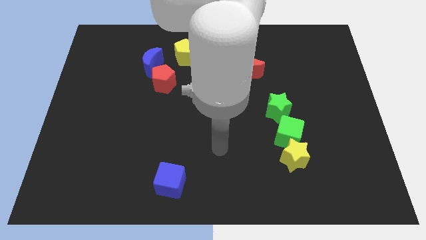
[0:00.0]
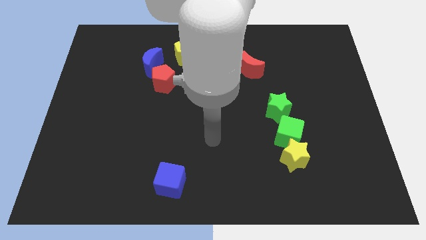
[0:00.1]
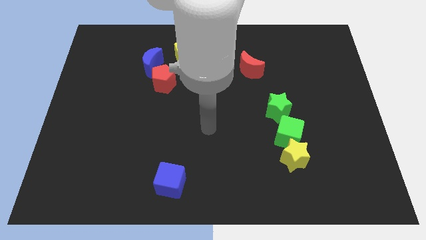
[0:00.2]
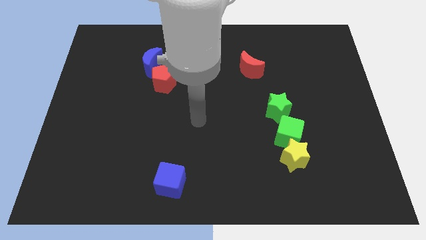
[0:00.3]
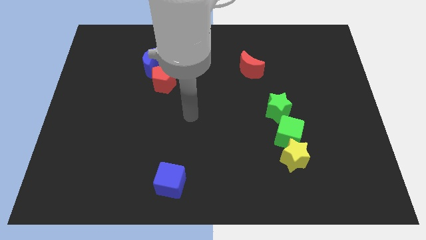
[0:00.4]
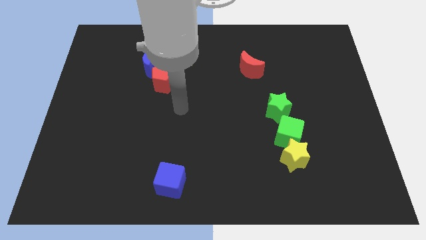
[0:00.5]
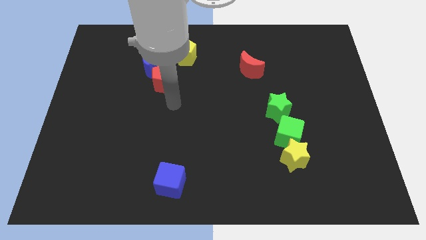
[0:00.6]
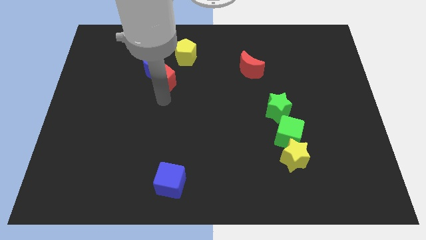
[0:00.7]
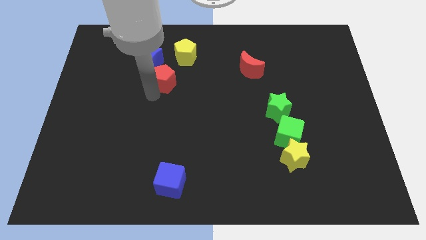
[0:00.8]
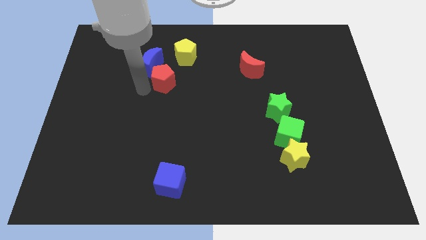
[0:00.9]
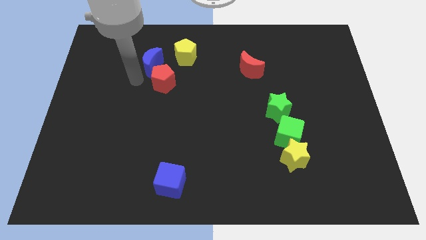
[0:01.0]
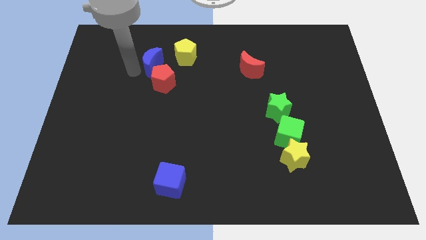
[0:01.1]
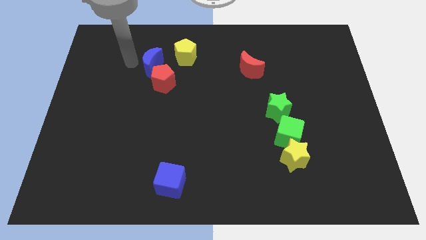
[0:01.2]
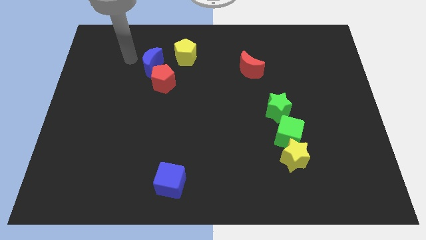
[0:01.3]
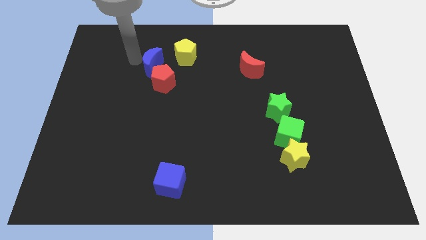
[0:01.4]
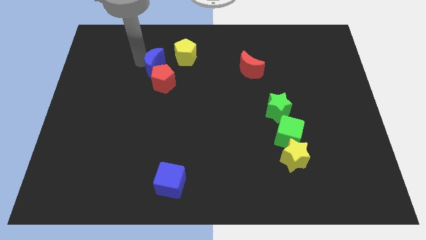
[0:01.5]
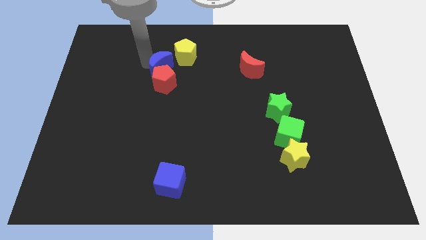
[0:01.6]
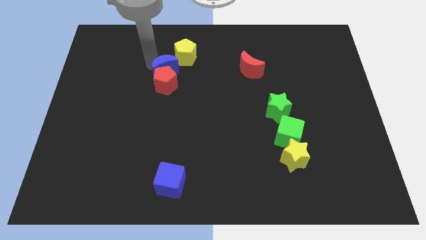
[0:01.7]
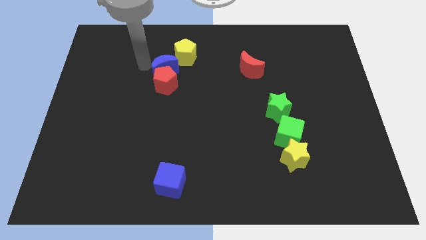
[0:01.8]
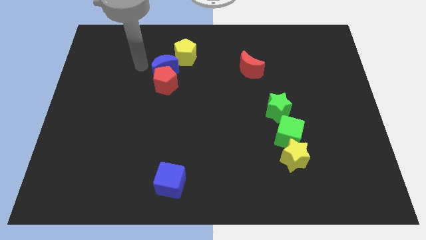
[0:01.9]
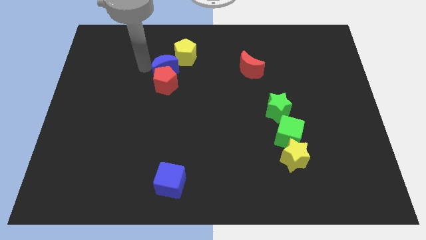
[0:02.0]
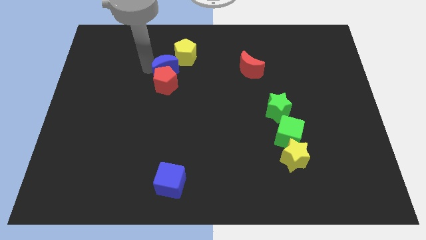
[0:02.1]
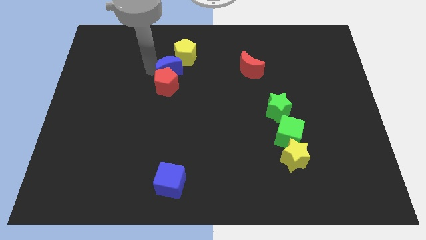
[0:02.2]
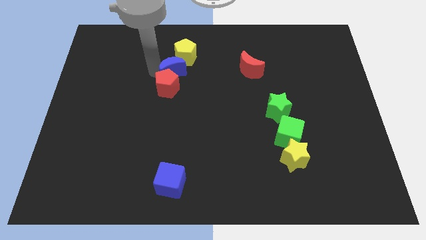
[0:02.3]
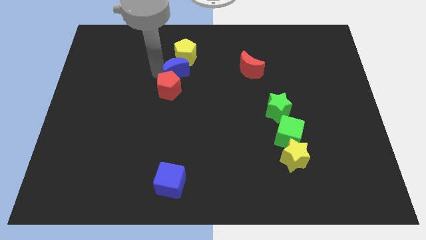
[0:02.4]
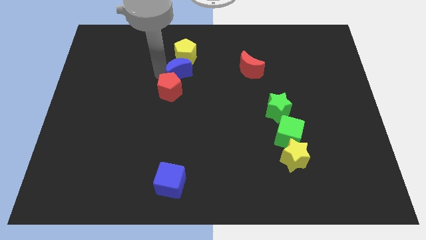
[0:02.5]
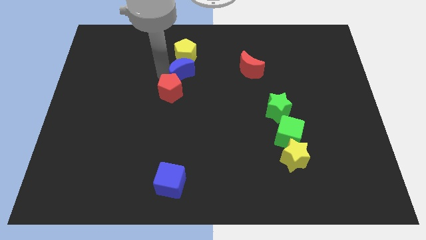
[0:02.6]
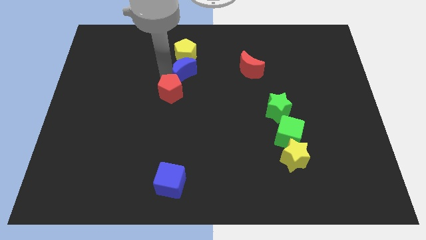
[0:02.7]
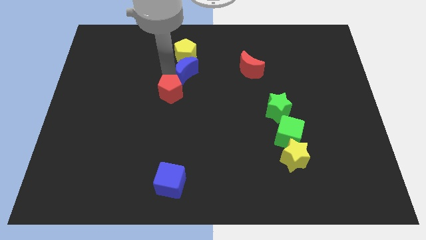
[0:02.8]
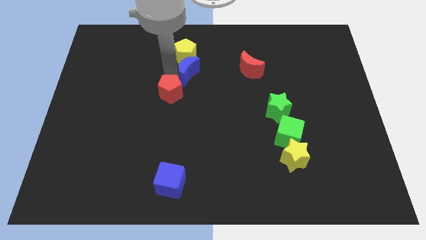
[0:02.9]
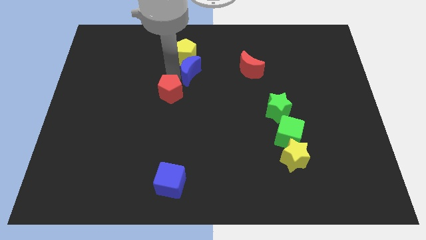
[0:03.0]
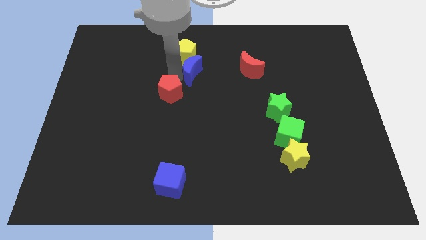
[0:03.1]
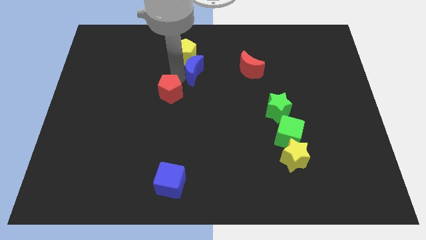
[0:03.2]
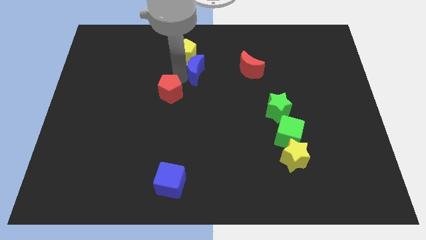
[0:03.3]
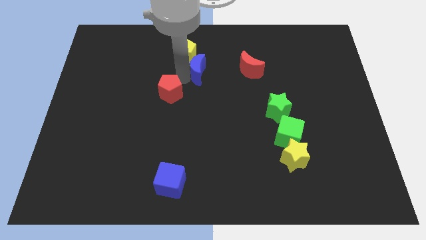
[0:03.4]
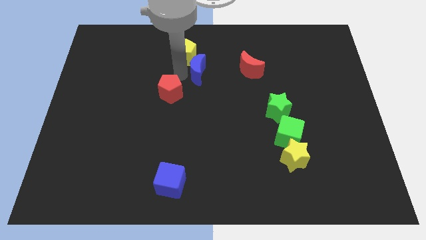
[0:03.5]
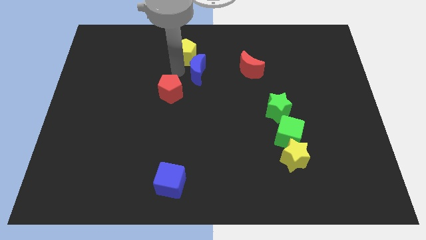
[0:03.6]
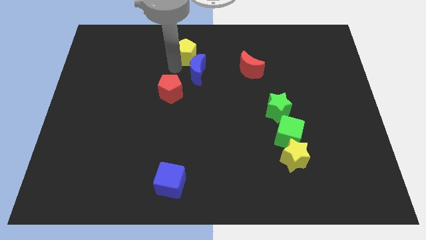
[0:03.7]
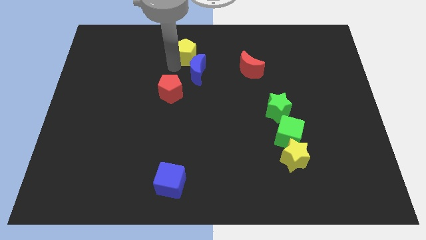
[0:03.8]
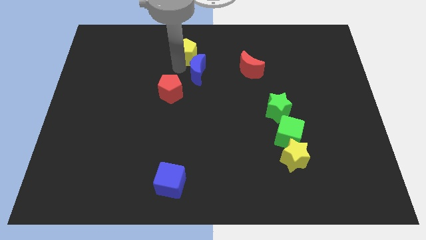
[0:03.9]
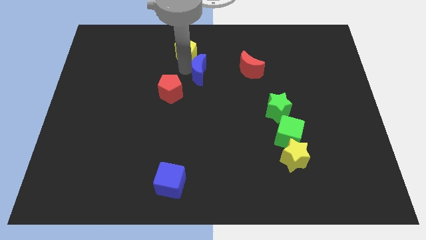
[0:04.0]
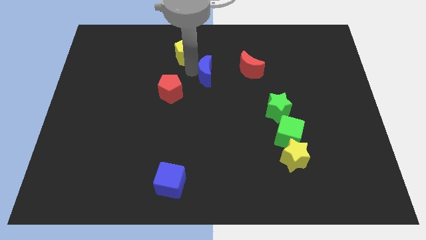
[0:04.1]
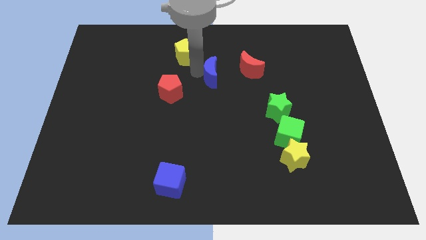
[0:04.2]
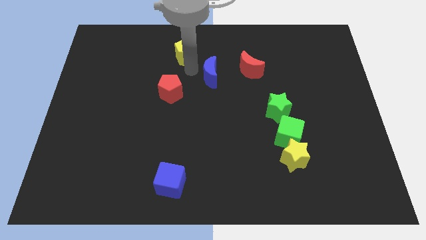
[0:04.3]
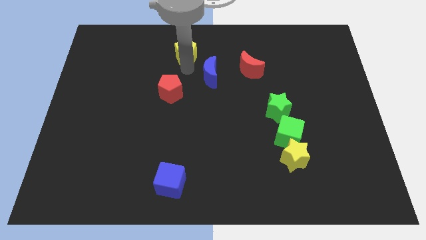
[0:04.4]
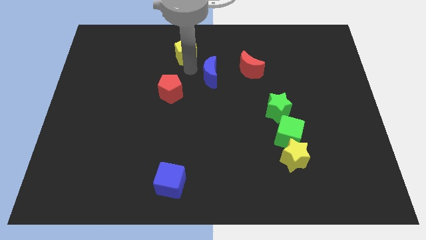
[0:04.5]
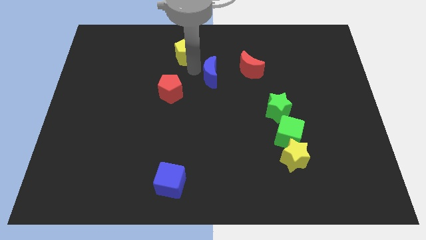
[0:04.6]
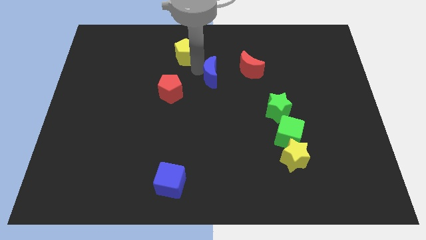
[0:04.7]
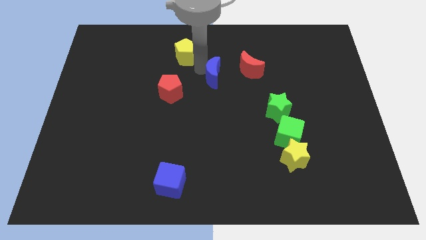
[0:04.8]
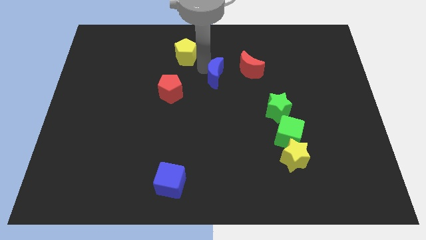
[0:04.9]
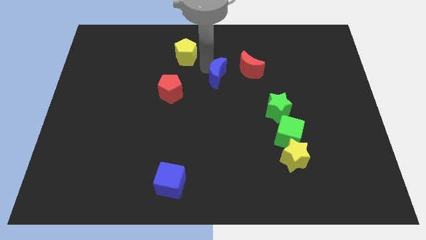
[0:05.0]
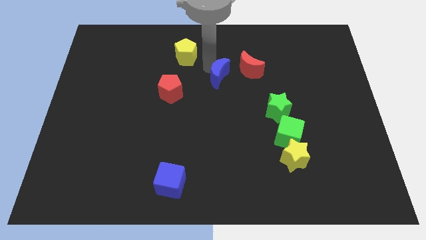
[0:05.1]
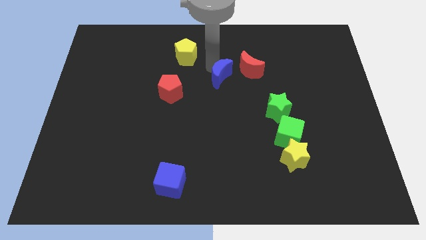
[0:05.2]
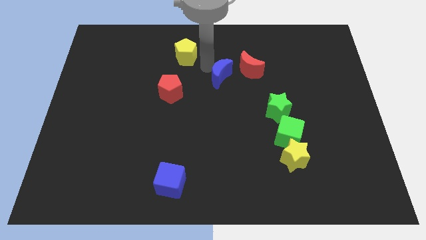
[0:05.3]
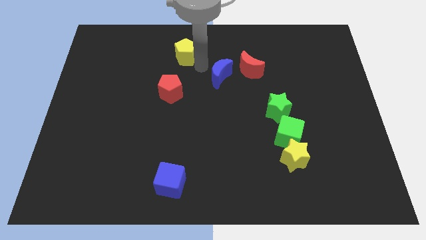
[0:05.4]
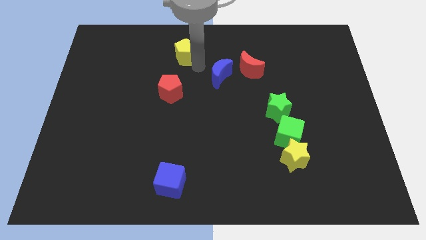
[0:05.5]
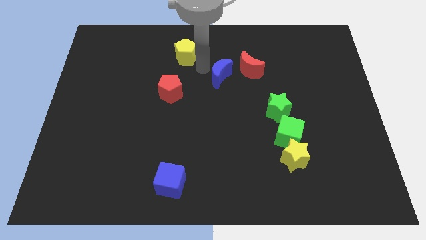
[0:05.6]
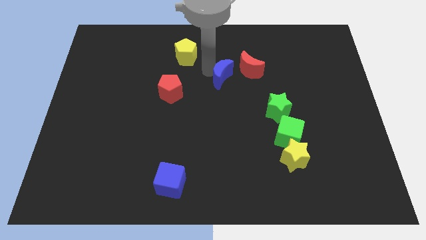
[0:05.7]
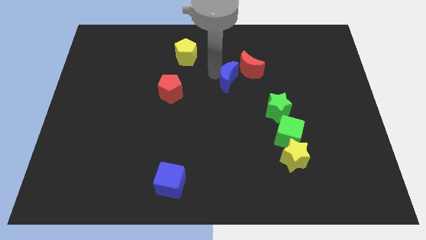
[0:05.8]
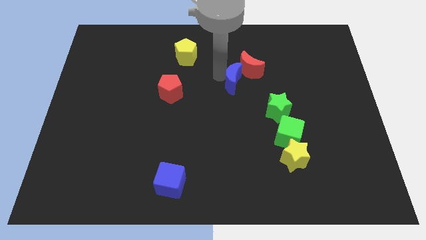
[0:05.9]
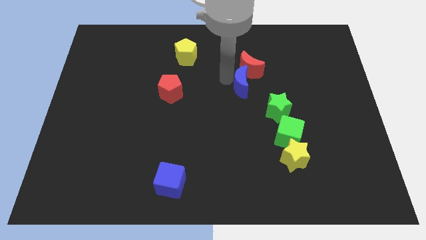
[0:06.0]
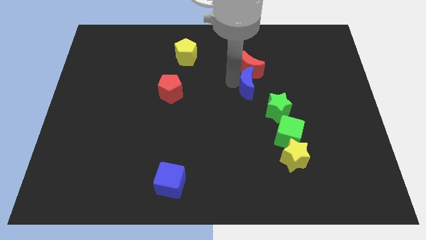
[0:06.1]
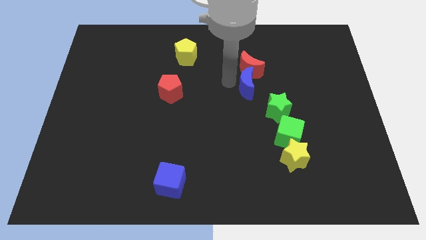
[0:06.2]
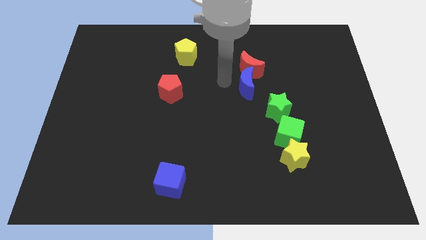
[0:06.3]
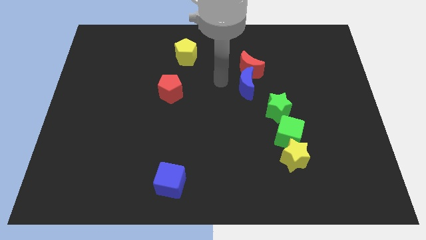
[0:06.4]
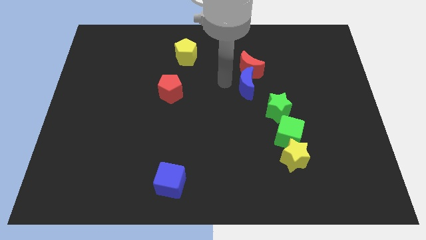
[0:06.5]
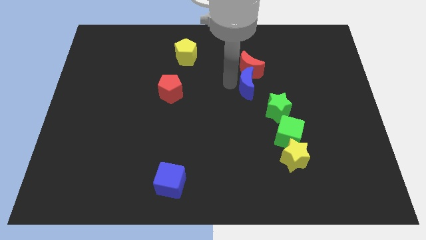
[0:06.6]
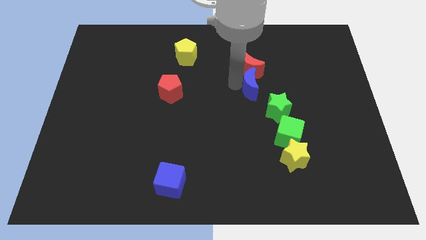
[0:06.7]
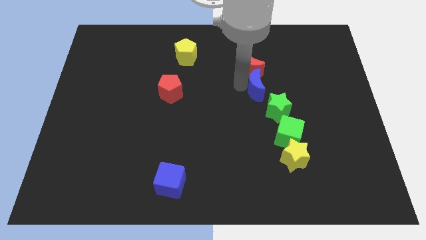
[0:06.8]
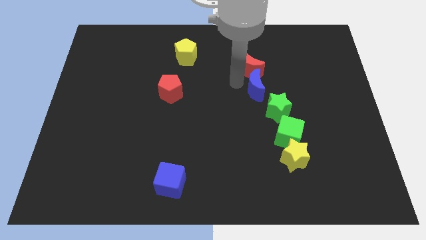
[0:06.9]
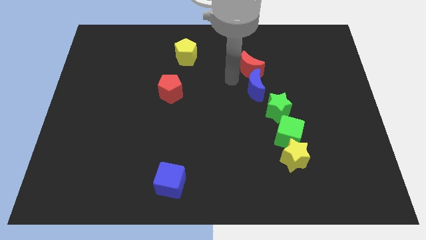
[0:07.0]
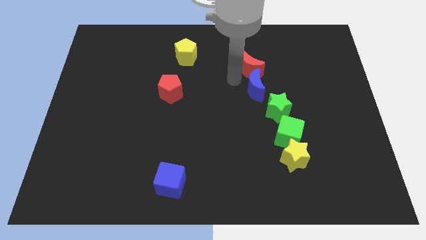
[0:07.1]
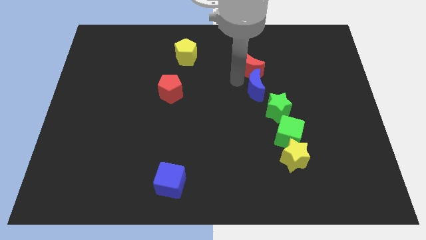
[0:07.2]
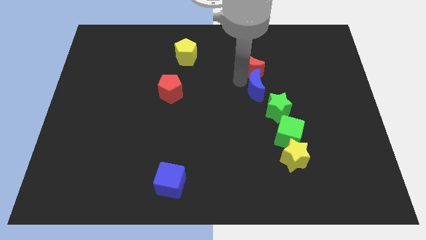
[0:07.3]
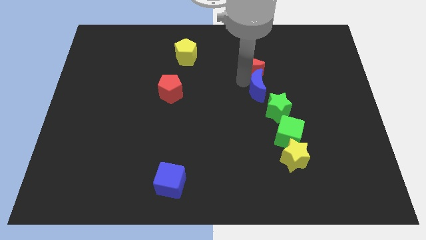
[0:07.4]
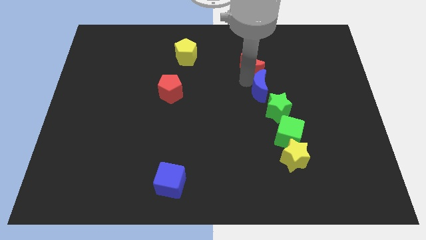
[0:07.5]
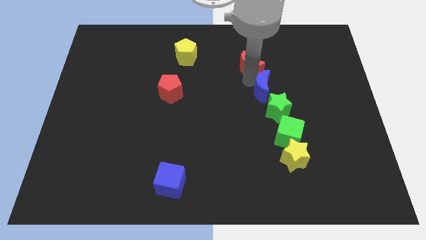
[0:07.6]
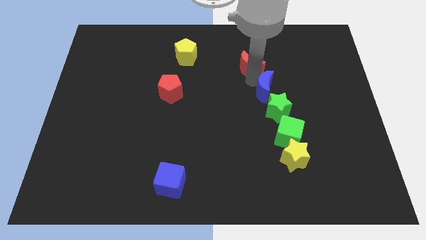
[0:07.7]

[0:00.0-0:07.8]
move the blue moon to the top of the green cube

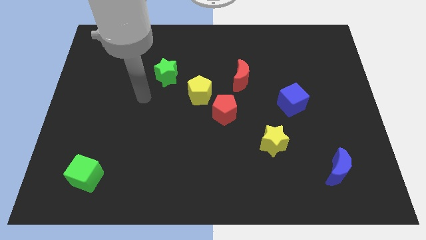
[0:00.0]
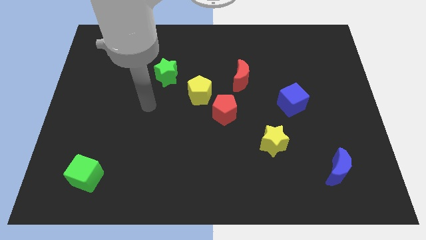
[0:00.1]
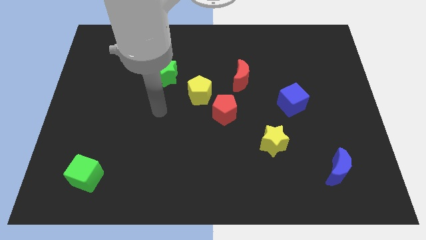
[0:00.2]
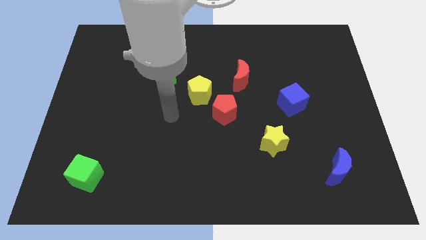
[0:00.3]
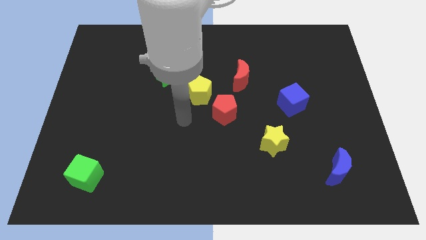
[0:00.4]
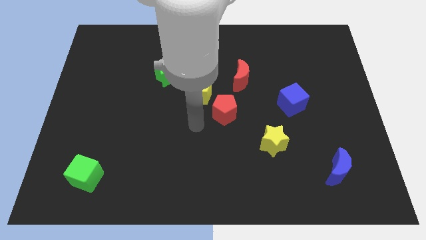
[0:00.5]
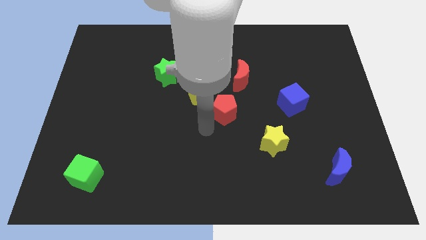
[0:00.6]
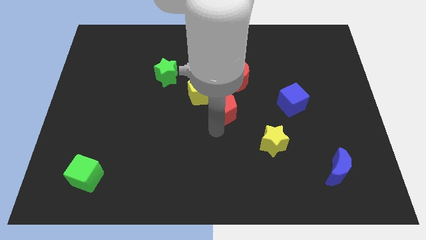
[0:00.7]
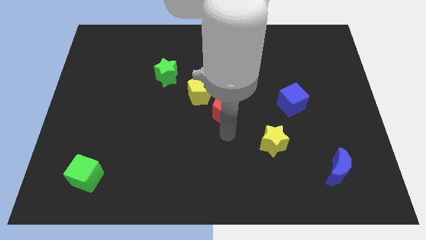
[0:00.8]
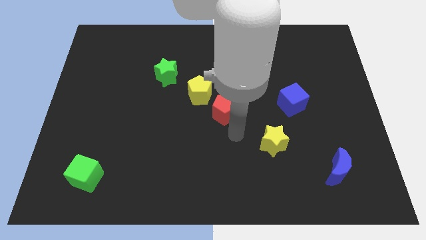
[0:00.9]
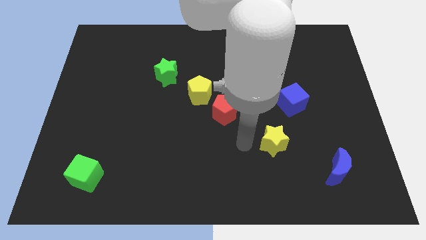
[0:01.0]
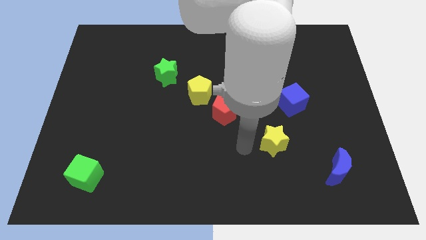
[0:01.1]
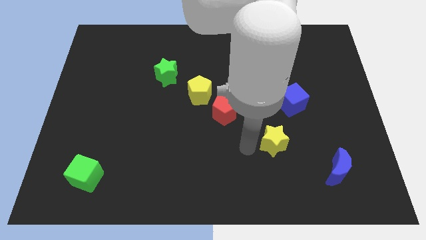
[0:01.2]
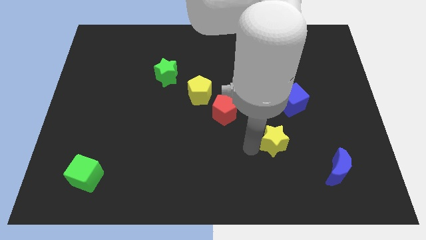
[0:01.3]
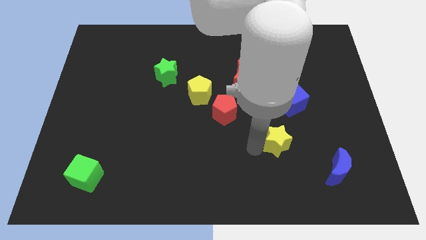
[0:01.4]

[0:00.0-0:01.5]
put the yellow star below the blue cube

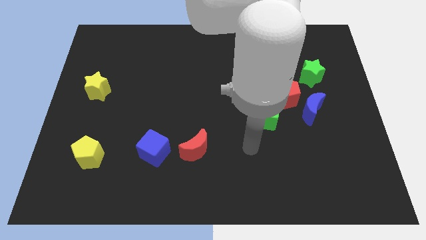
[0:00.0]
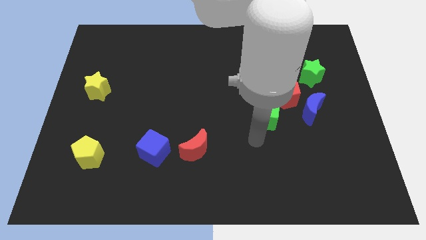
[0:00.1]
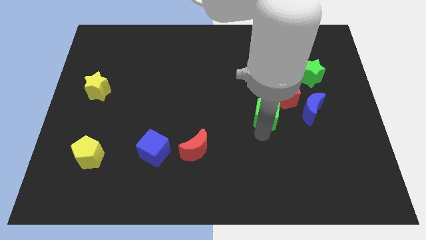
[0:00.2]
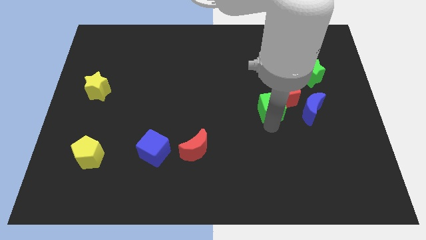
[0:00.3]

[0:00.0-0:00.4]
put the red pentagon above the blue moon
